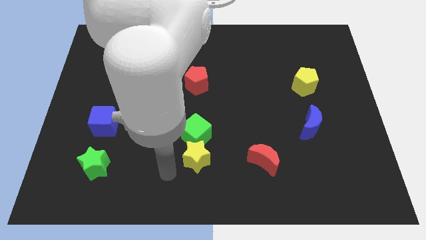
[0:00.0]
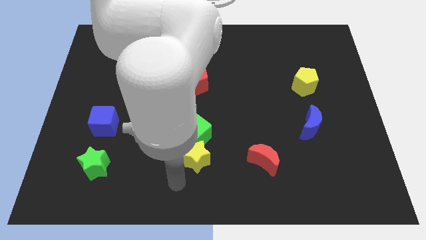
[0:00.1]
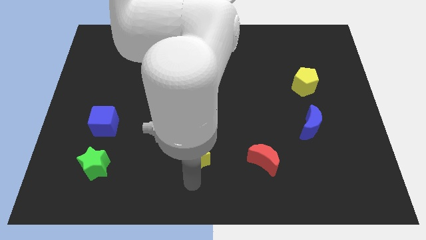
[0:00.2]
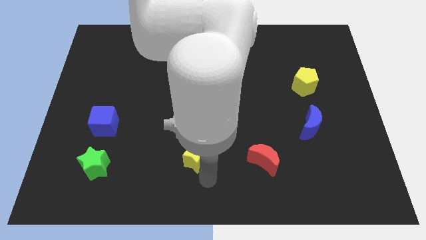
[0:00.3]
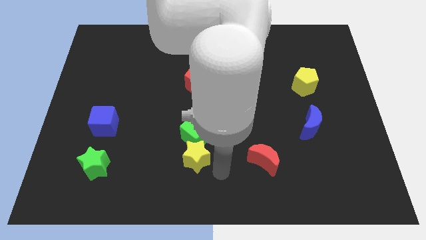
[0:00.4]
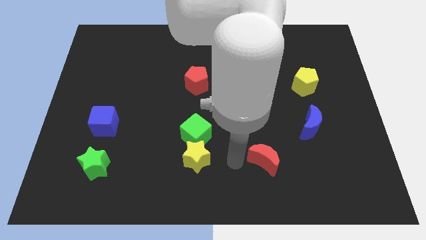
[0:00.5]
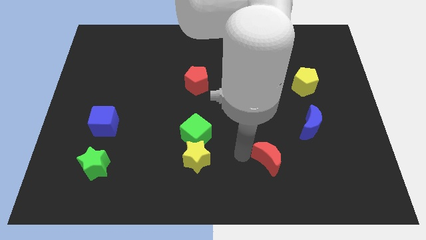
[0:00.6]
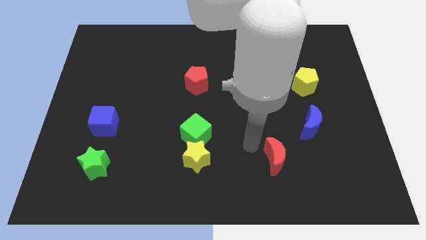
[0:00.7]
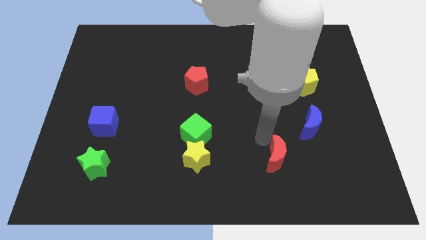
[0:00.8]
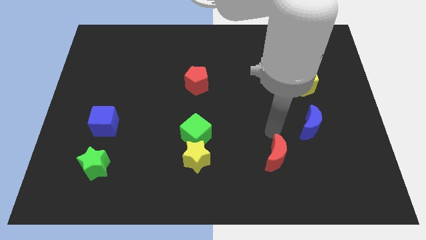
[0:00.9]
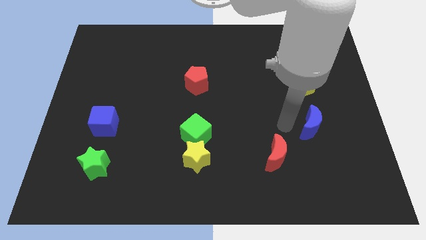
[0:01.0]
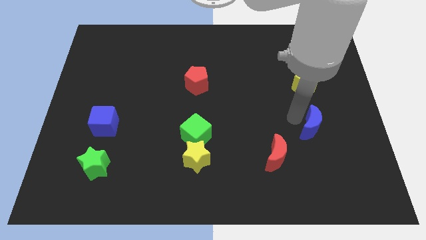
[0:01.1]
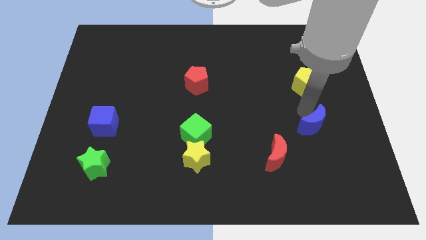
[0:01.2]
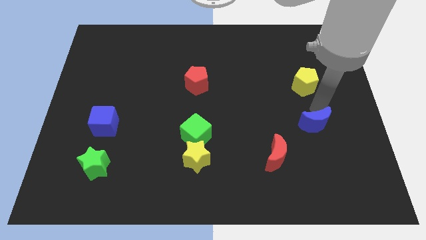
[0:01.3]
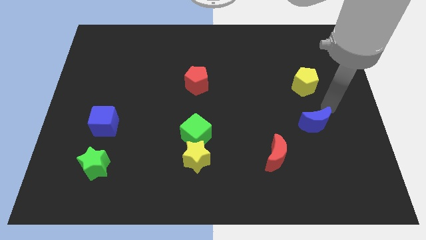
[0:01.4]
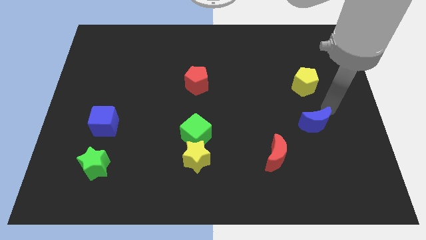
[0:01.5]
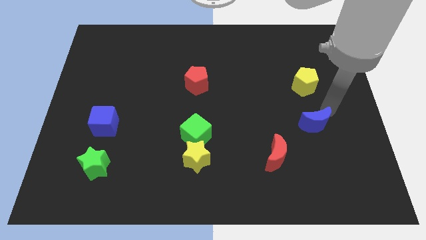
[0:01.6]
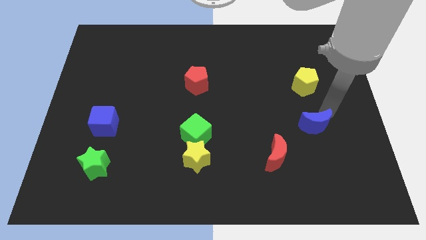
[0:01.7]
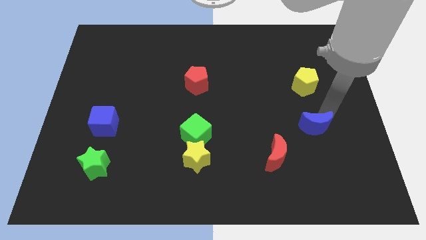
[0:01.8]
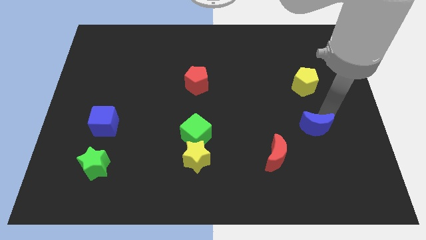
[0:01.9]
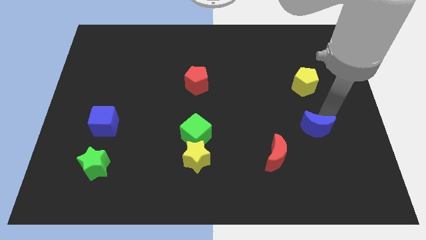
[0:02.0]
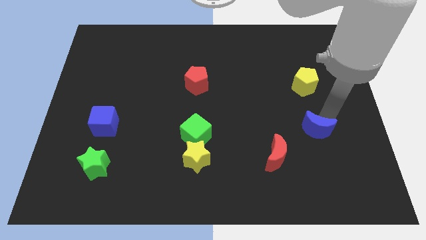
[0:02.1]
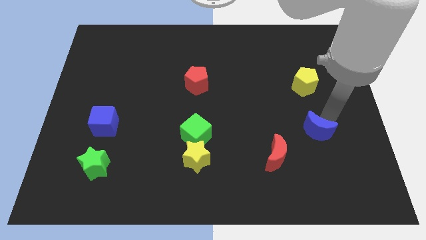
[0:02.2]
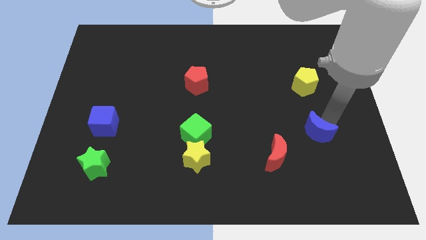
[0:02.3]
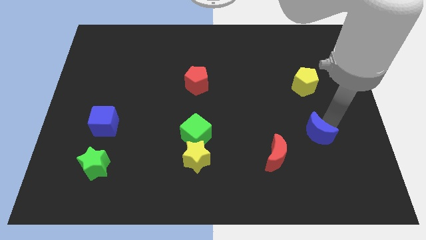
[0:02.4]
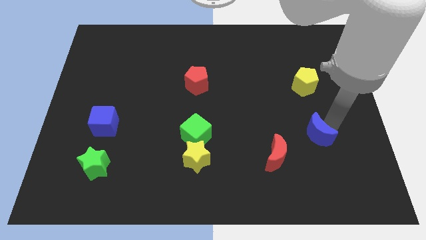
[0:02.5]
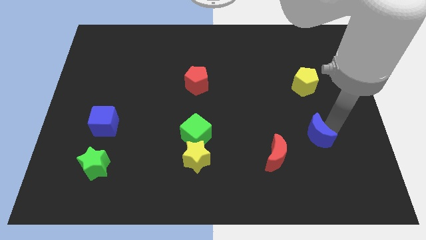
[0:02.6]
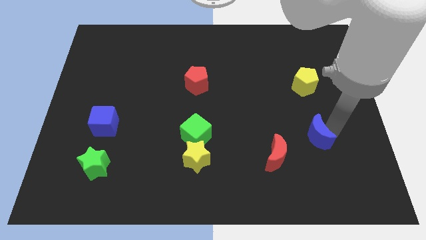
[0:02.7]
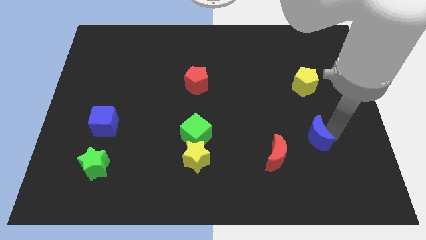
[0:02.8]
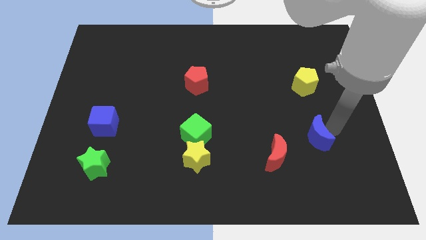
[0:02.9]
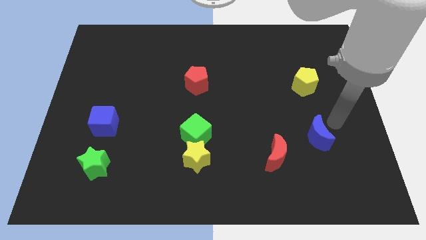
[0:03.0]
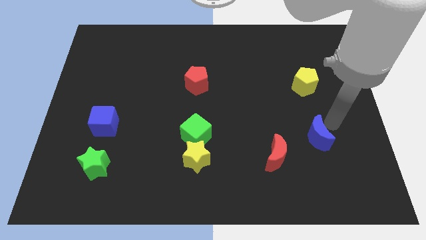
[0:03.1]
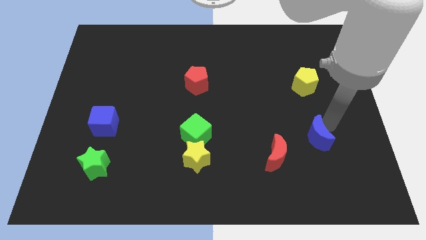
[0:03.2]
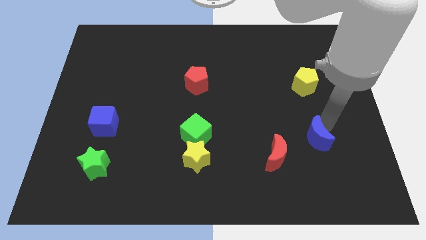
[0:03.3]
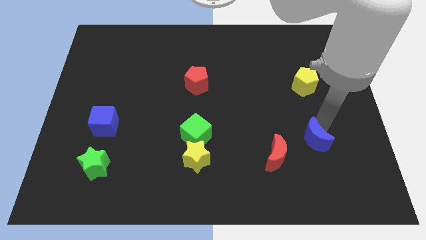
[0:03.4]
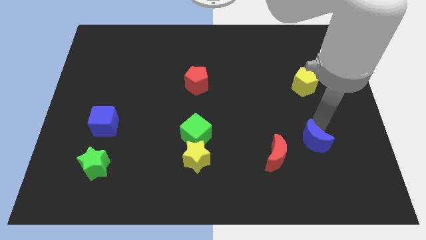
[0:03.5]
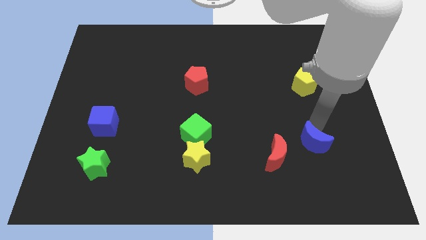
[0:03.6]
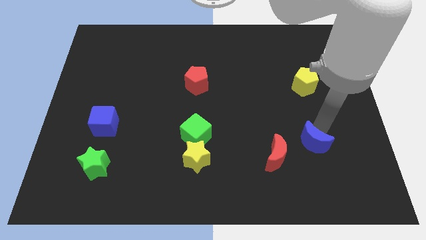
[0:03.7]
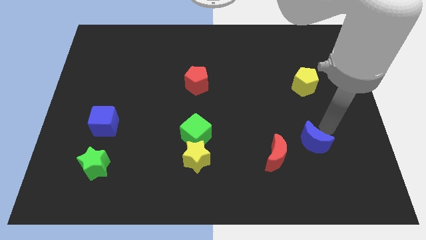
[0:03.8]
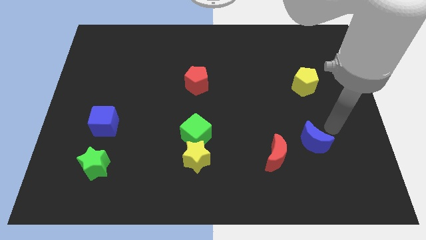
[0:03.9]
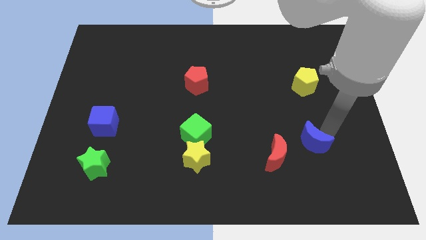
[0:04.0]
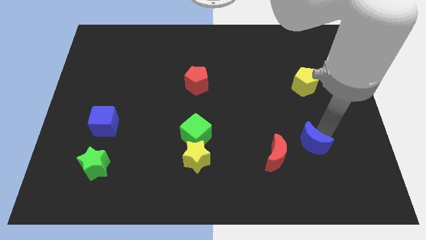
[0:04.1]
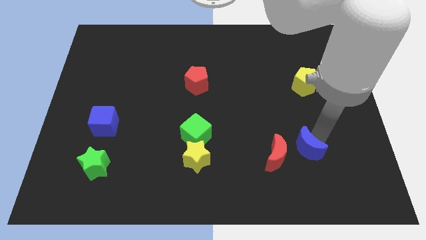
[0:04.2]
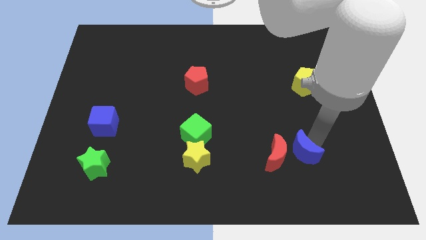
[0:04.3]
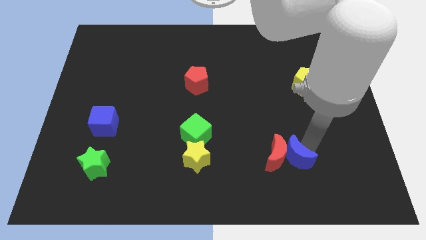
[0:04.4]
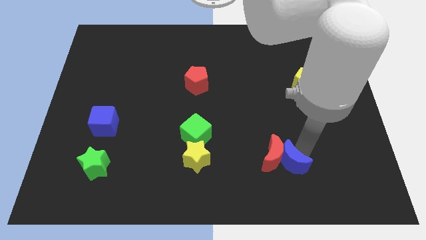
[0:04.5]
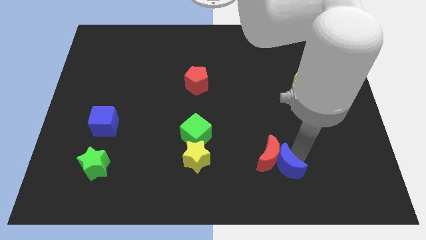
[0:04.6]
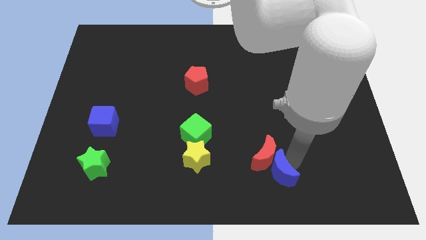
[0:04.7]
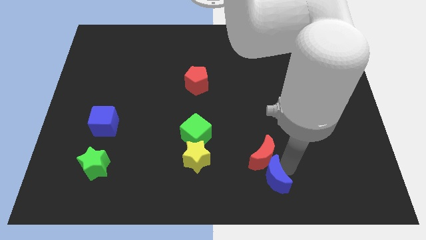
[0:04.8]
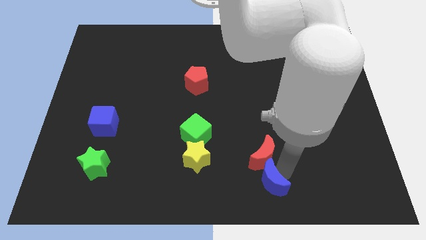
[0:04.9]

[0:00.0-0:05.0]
move the blue moon to the bottom side
